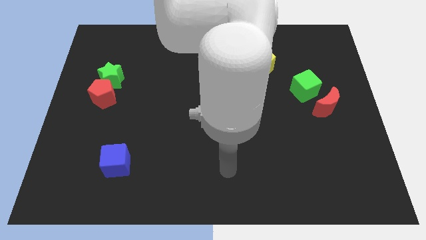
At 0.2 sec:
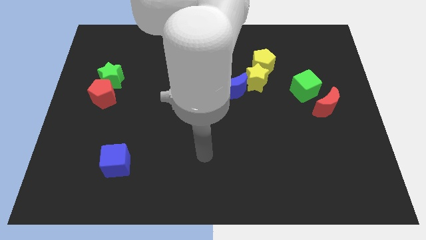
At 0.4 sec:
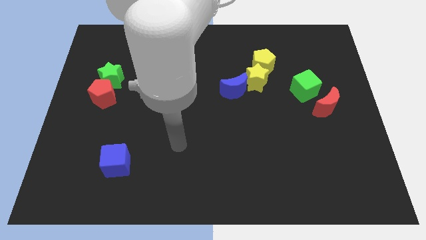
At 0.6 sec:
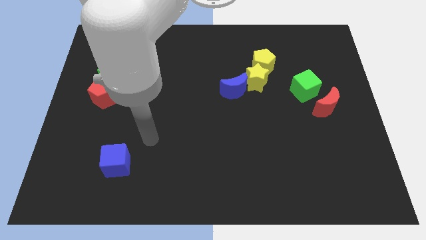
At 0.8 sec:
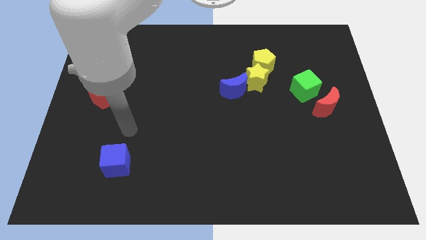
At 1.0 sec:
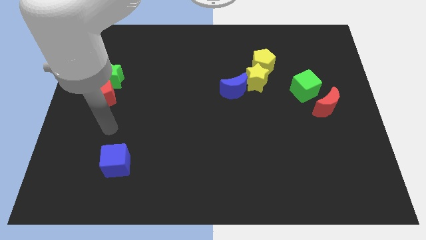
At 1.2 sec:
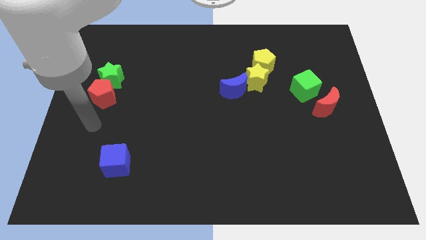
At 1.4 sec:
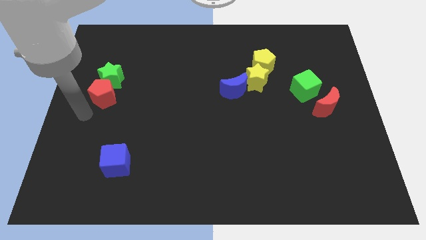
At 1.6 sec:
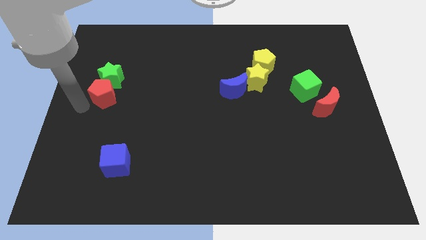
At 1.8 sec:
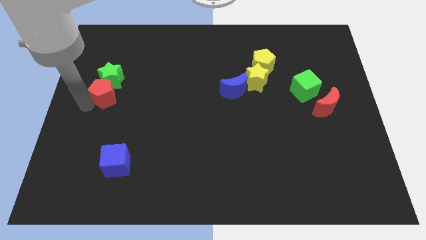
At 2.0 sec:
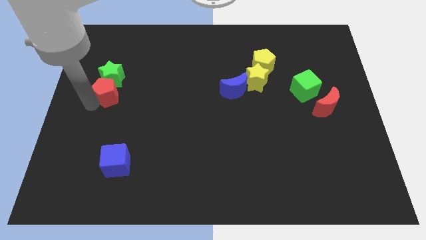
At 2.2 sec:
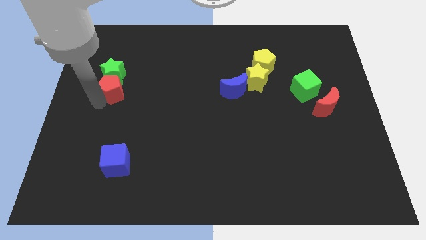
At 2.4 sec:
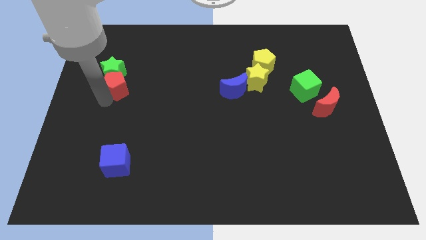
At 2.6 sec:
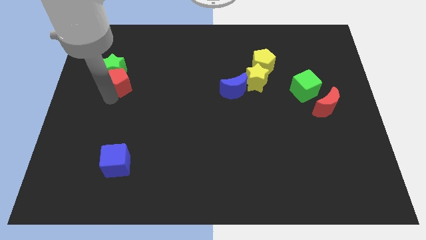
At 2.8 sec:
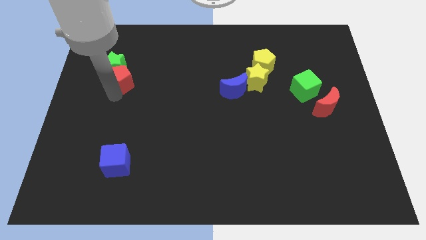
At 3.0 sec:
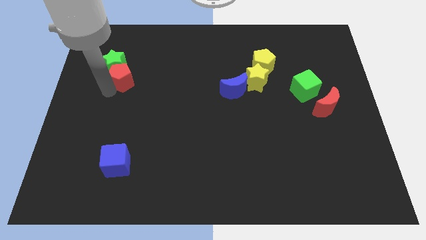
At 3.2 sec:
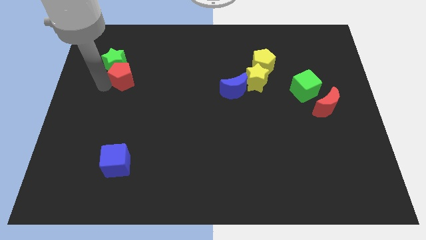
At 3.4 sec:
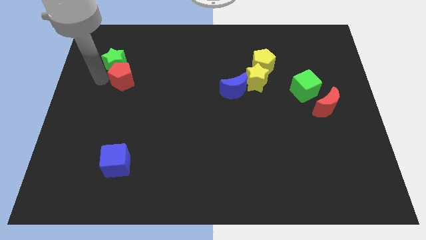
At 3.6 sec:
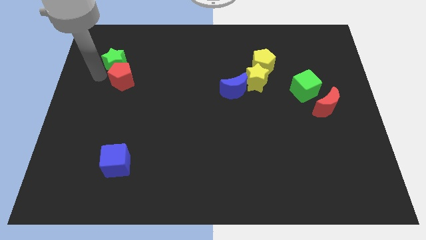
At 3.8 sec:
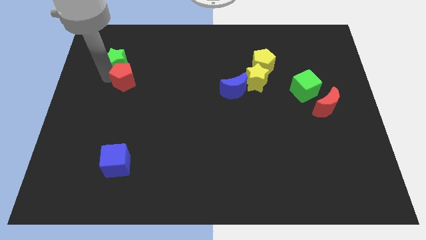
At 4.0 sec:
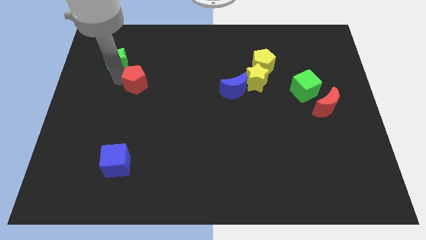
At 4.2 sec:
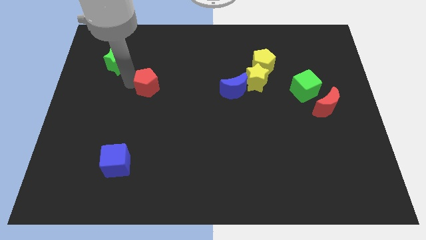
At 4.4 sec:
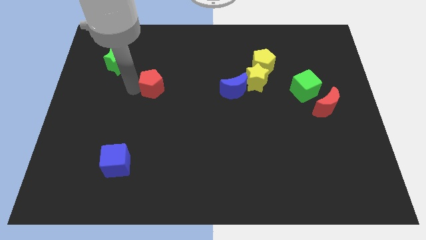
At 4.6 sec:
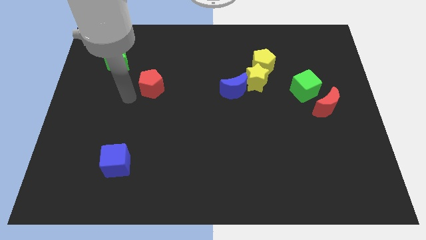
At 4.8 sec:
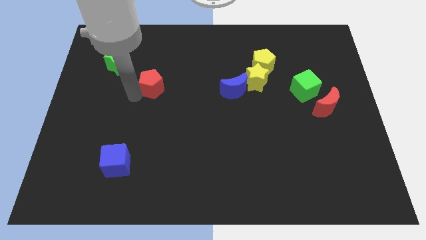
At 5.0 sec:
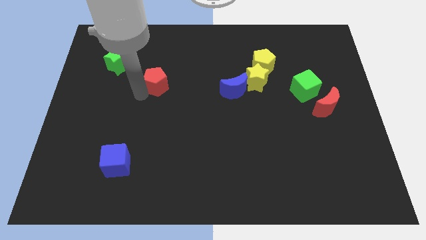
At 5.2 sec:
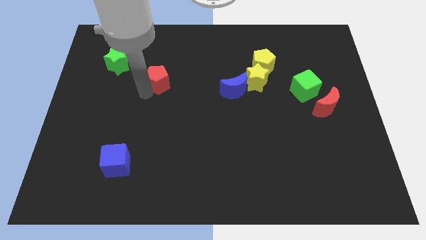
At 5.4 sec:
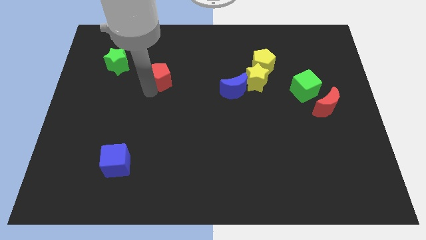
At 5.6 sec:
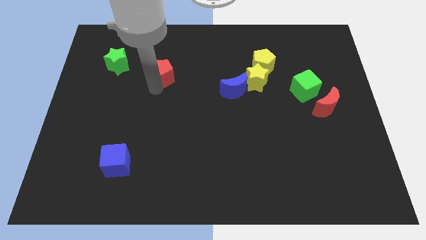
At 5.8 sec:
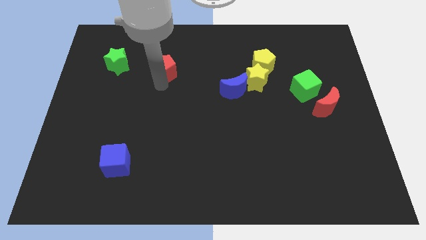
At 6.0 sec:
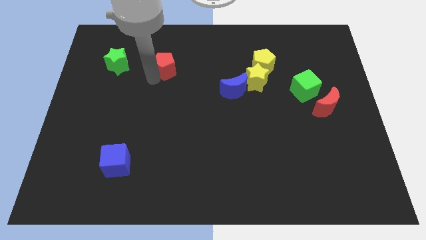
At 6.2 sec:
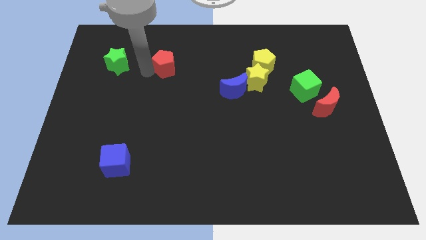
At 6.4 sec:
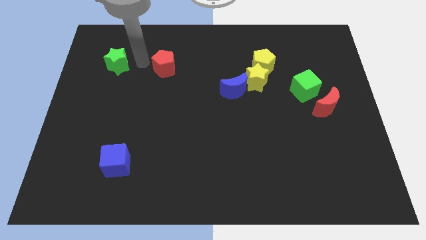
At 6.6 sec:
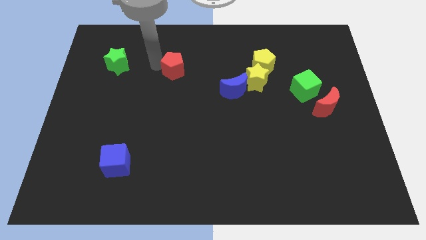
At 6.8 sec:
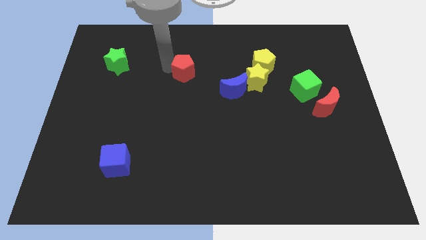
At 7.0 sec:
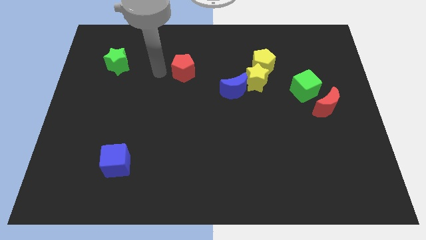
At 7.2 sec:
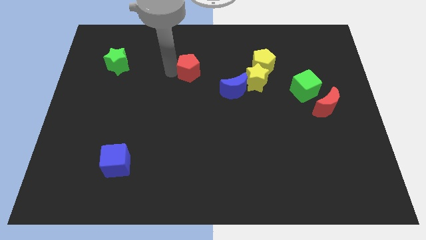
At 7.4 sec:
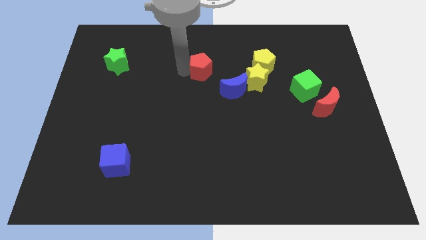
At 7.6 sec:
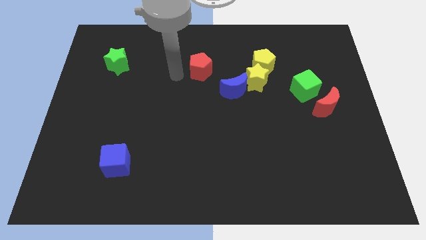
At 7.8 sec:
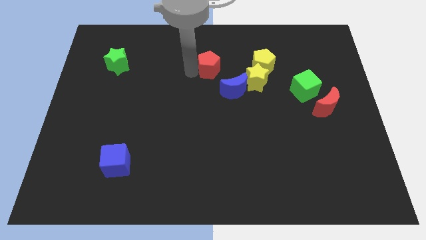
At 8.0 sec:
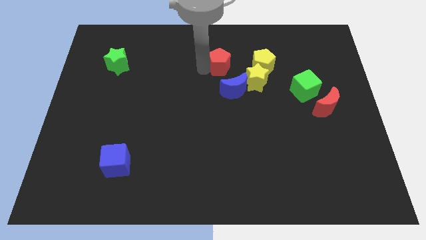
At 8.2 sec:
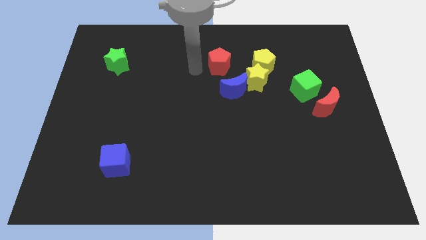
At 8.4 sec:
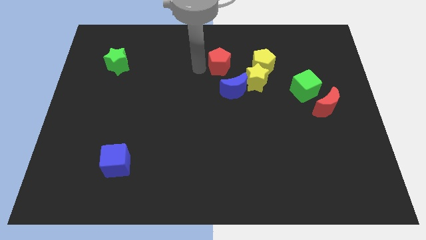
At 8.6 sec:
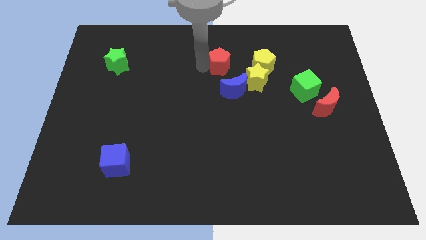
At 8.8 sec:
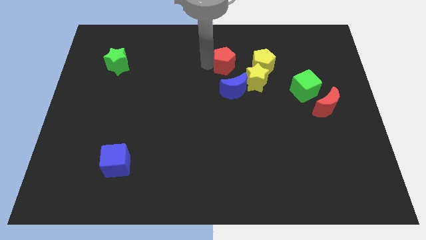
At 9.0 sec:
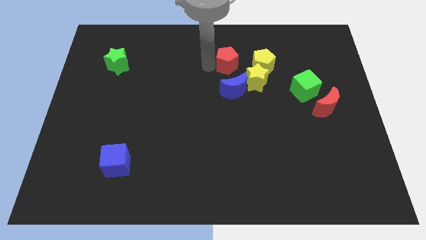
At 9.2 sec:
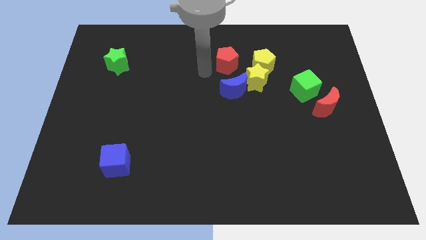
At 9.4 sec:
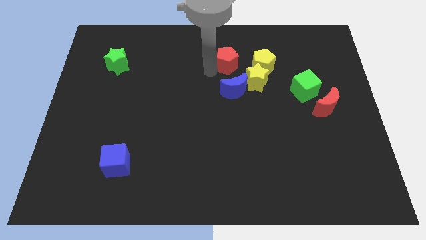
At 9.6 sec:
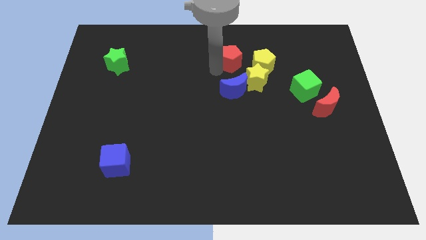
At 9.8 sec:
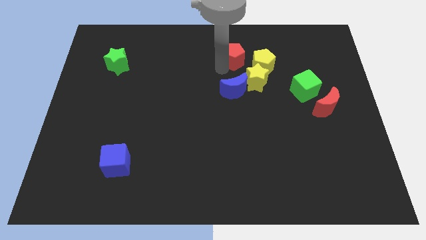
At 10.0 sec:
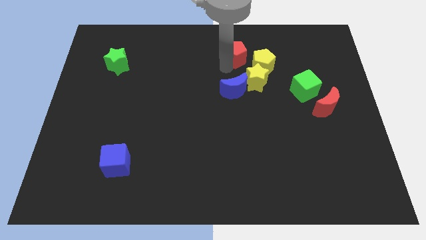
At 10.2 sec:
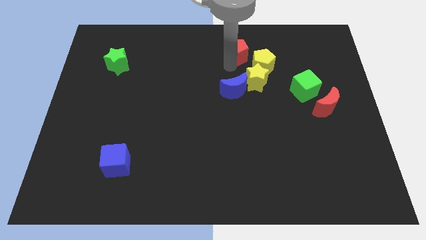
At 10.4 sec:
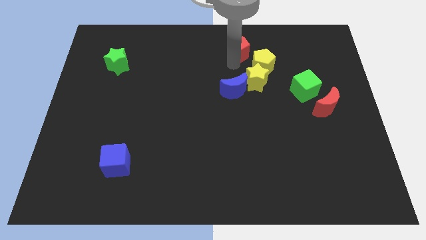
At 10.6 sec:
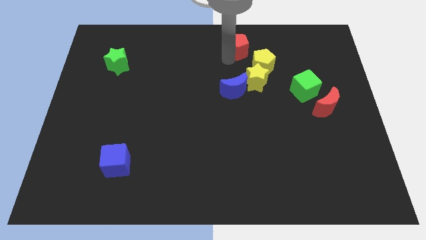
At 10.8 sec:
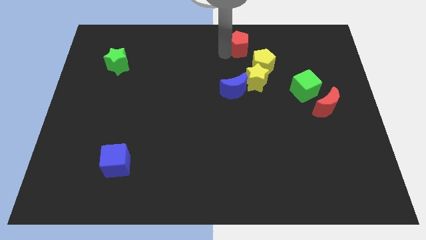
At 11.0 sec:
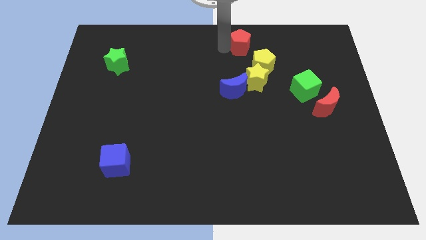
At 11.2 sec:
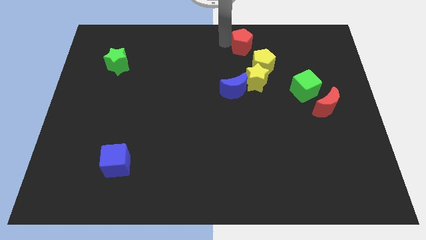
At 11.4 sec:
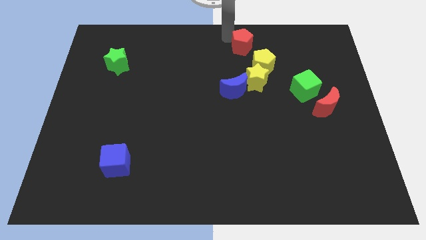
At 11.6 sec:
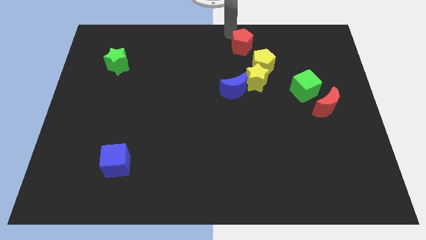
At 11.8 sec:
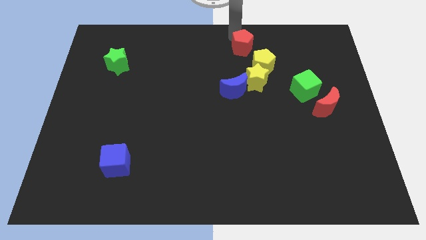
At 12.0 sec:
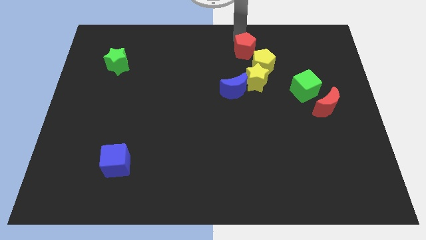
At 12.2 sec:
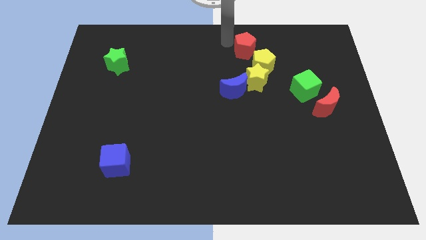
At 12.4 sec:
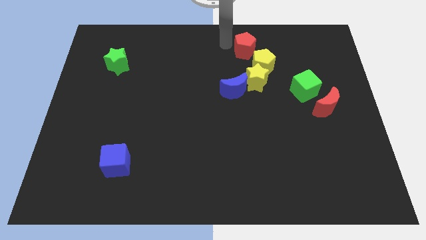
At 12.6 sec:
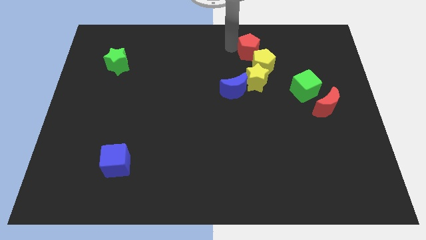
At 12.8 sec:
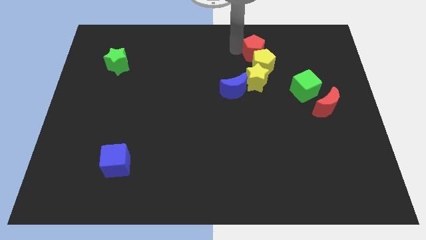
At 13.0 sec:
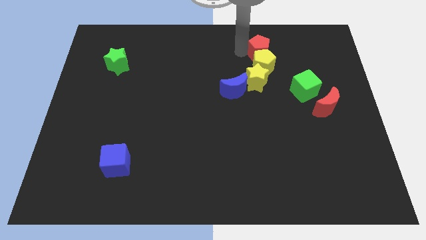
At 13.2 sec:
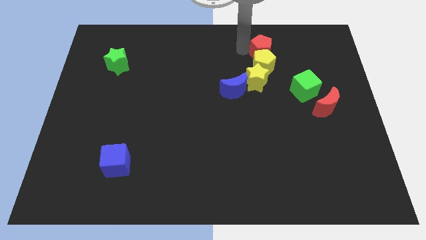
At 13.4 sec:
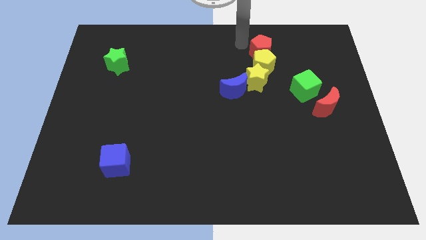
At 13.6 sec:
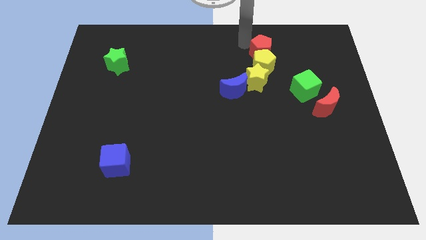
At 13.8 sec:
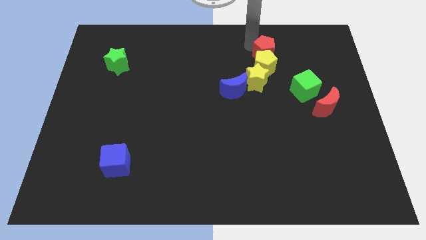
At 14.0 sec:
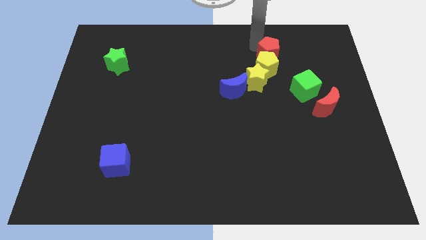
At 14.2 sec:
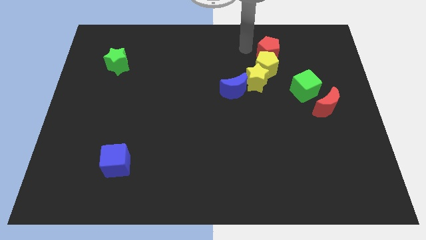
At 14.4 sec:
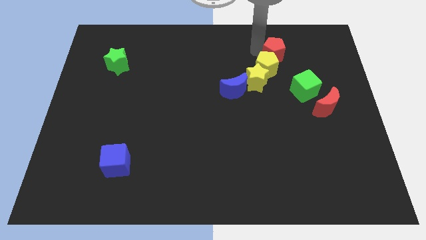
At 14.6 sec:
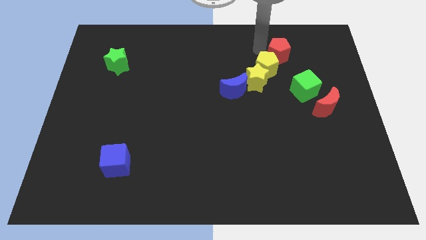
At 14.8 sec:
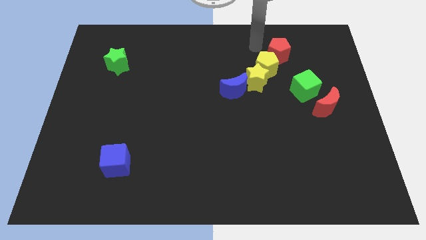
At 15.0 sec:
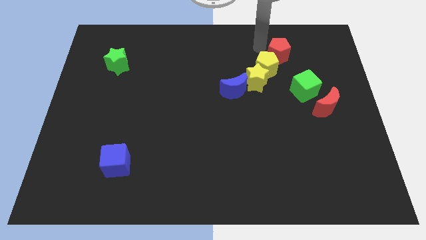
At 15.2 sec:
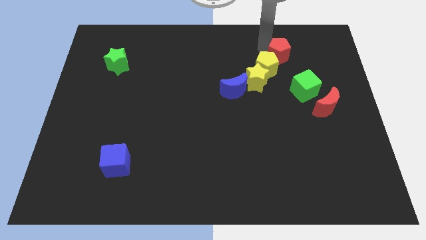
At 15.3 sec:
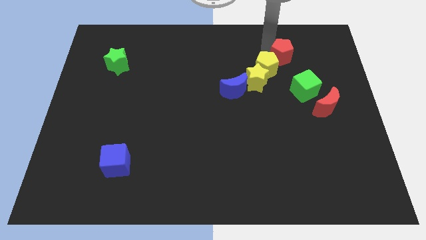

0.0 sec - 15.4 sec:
put the red pentagon to the right of the yellow pentagon
